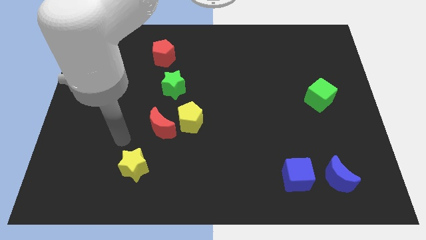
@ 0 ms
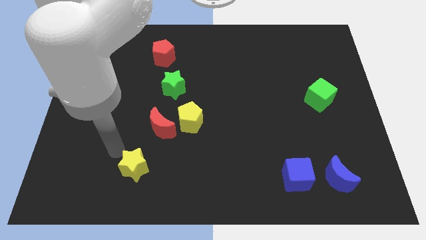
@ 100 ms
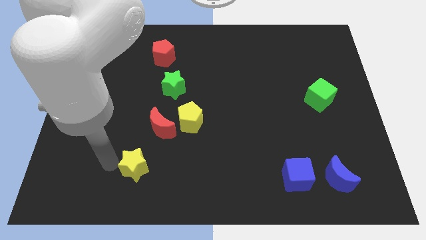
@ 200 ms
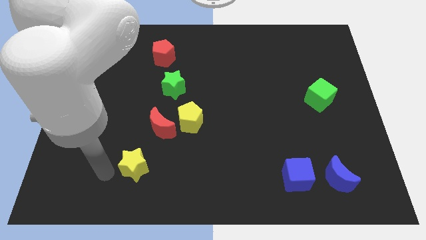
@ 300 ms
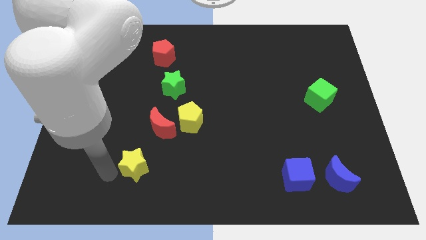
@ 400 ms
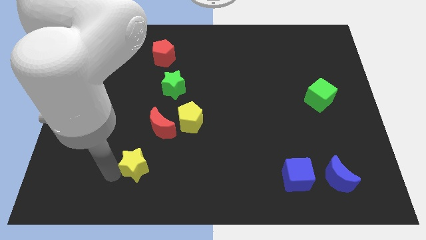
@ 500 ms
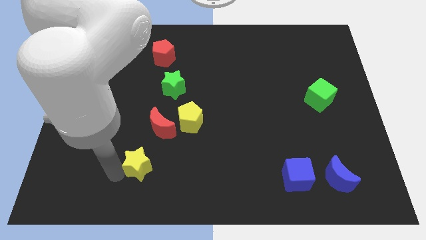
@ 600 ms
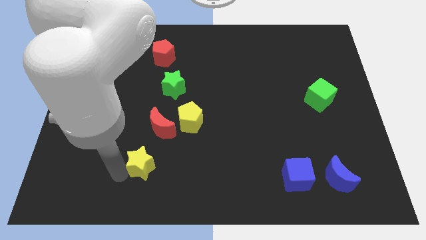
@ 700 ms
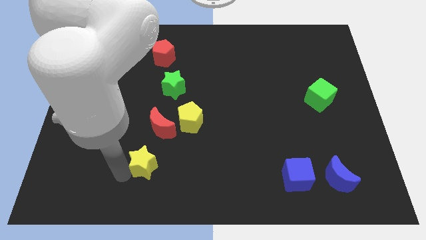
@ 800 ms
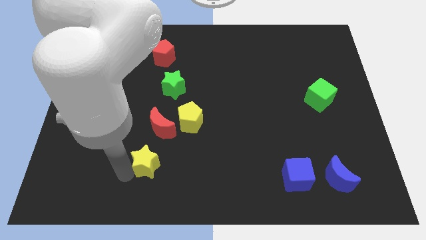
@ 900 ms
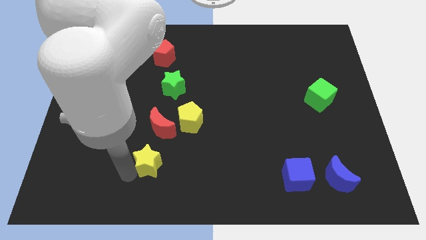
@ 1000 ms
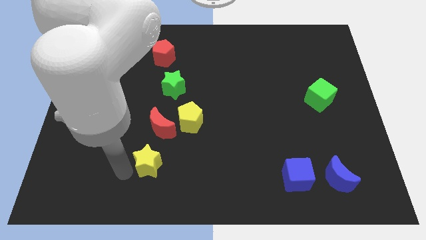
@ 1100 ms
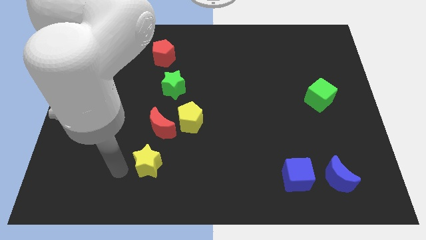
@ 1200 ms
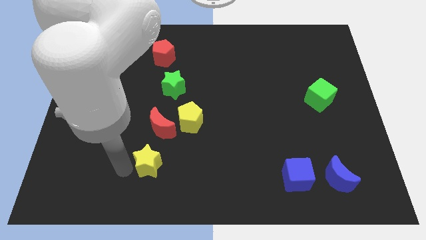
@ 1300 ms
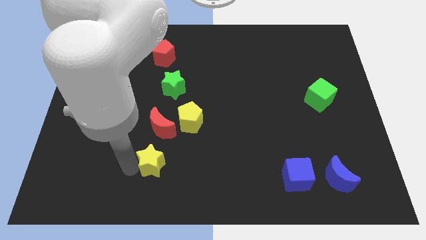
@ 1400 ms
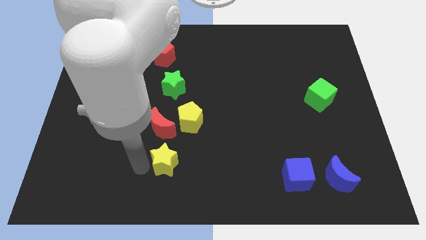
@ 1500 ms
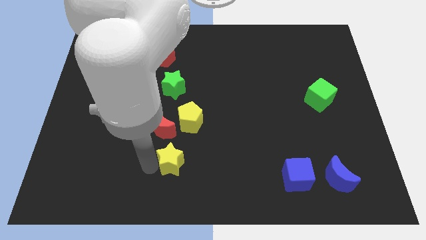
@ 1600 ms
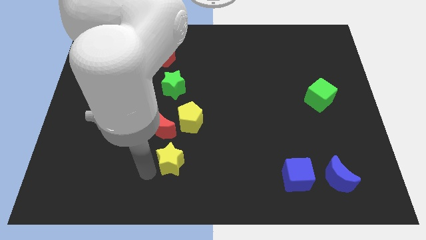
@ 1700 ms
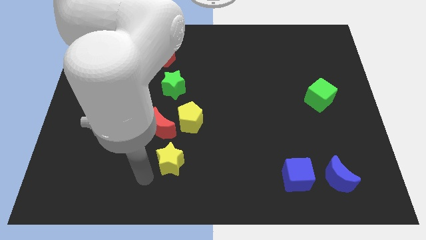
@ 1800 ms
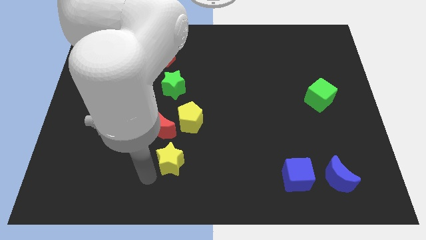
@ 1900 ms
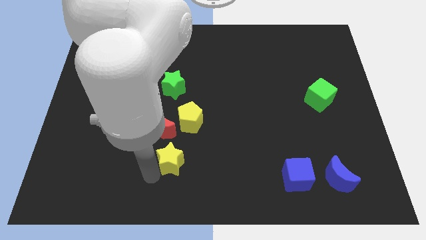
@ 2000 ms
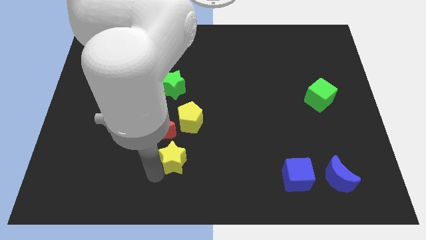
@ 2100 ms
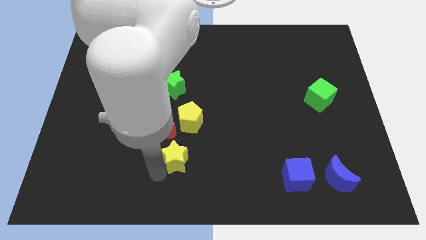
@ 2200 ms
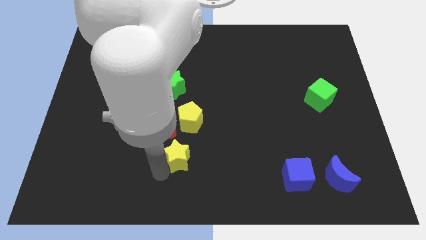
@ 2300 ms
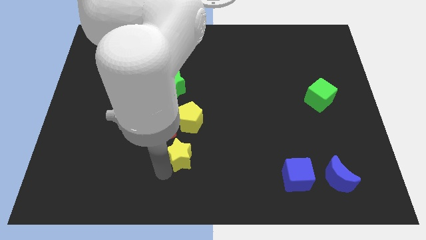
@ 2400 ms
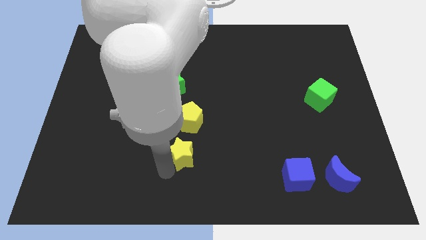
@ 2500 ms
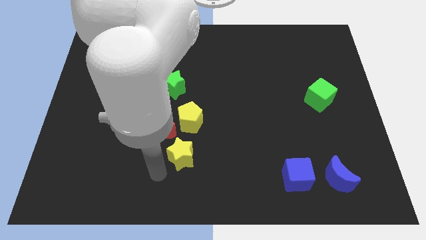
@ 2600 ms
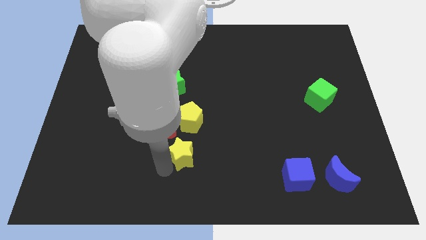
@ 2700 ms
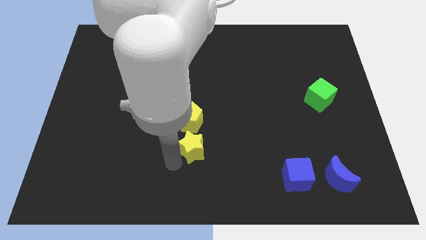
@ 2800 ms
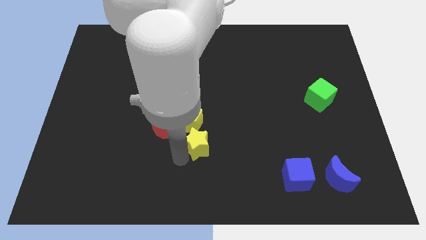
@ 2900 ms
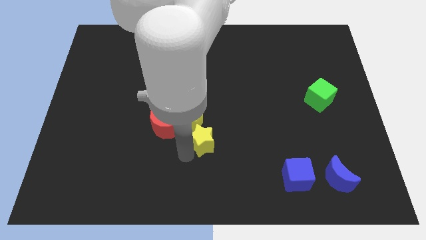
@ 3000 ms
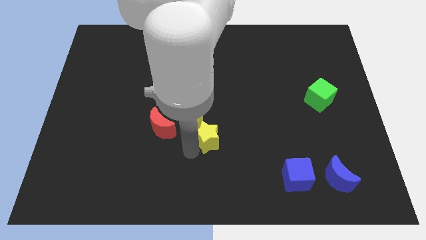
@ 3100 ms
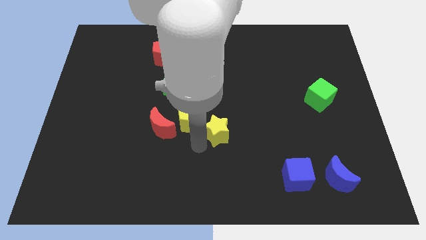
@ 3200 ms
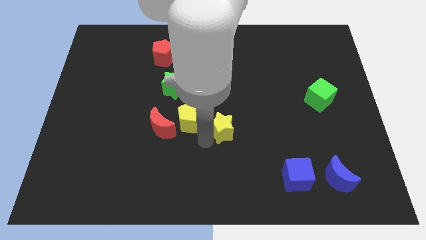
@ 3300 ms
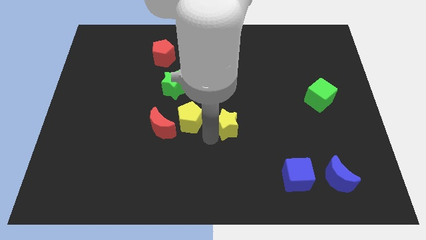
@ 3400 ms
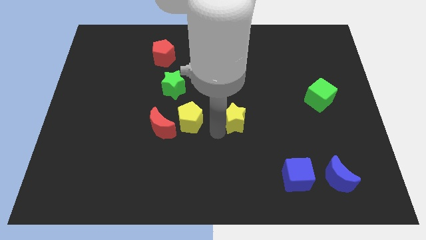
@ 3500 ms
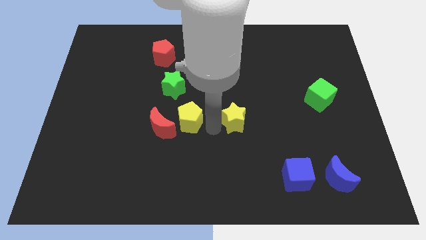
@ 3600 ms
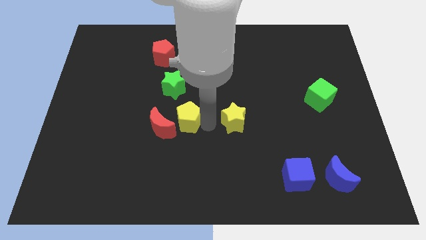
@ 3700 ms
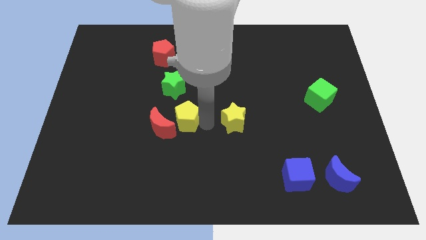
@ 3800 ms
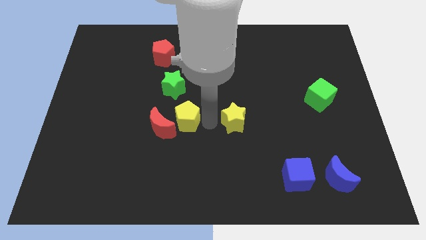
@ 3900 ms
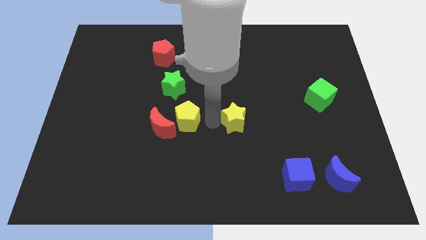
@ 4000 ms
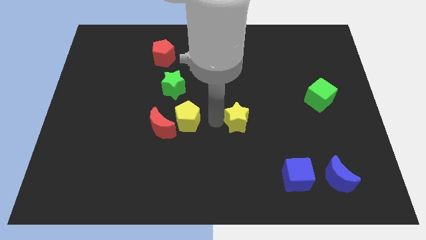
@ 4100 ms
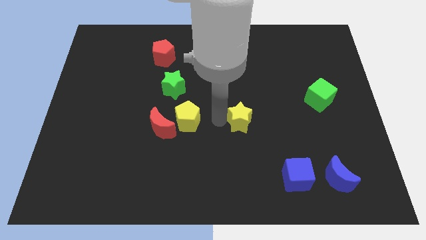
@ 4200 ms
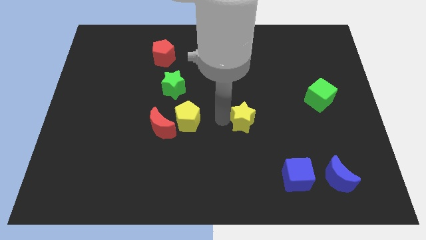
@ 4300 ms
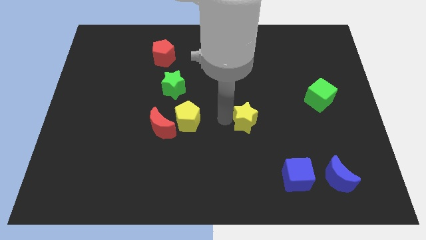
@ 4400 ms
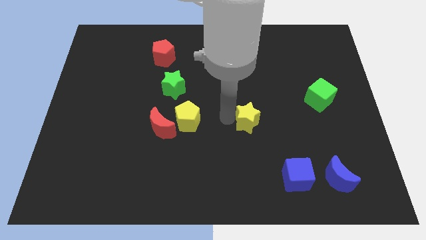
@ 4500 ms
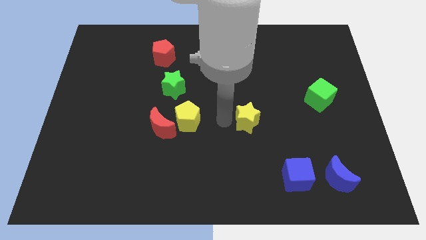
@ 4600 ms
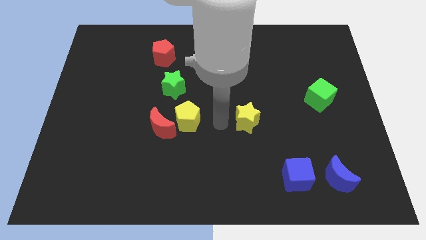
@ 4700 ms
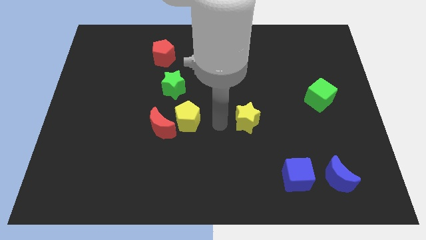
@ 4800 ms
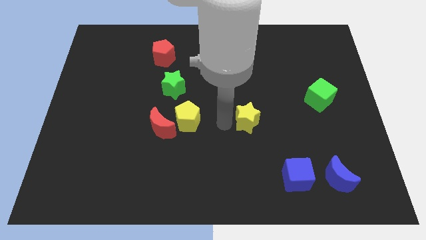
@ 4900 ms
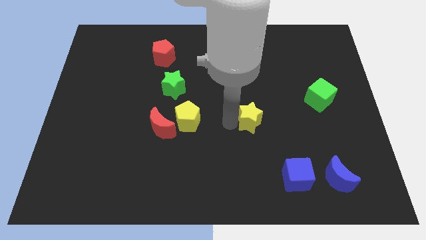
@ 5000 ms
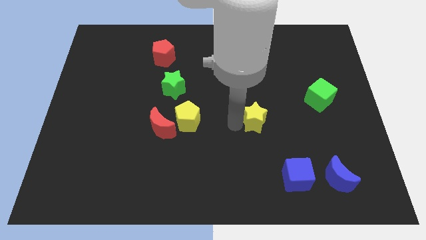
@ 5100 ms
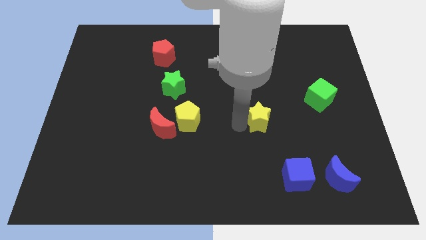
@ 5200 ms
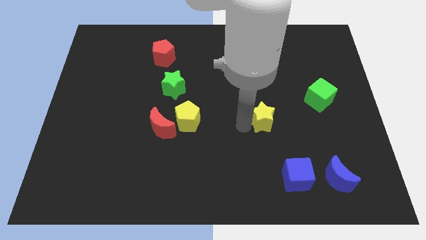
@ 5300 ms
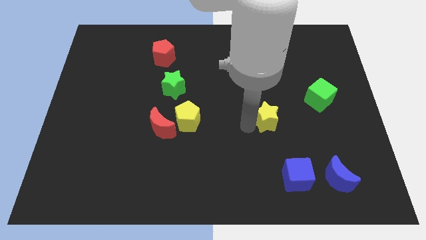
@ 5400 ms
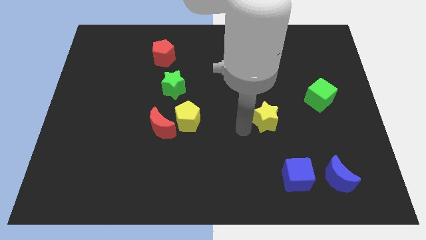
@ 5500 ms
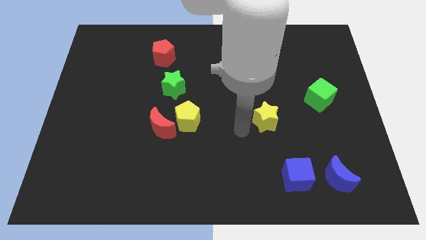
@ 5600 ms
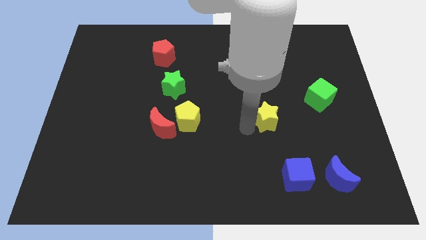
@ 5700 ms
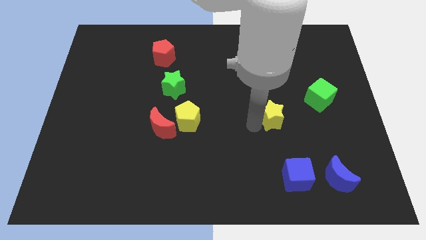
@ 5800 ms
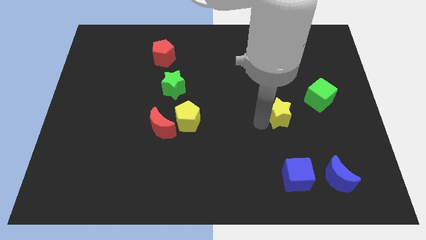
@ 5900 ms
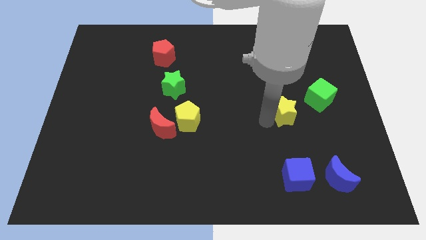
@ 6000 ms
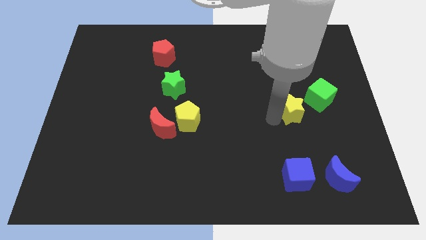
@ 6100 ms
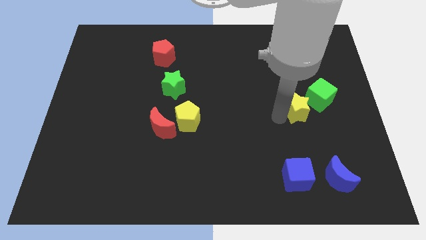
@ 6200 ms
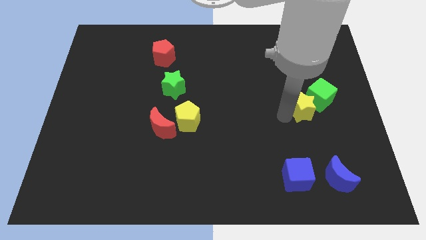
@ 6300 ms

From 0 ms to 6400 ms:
put the yellow star to the green cube

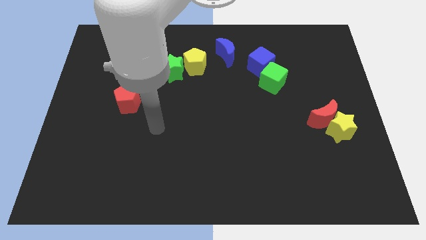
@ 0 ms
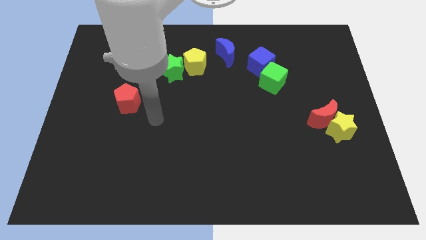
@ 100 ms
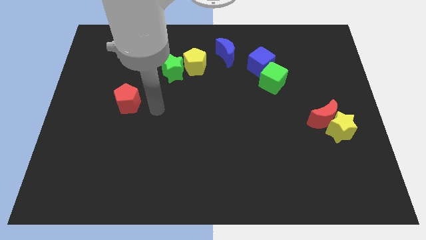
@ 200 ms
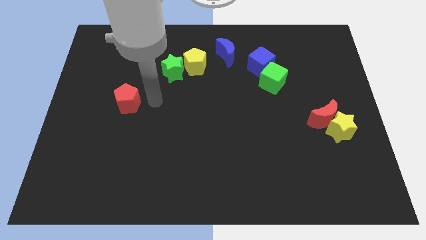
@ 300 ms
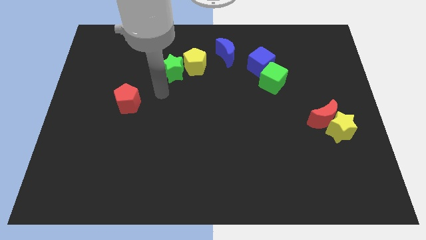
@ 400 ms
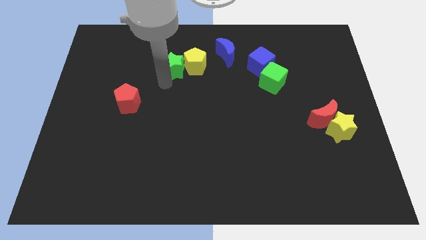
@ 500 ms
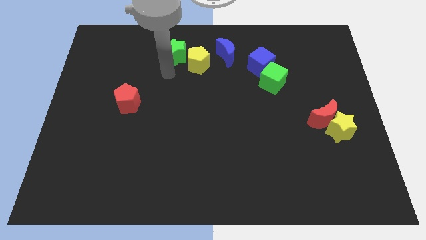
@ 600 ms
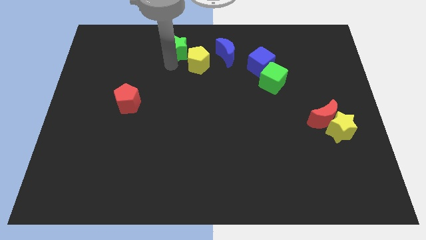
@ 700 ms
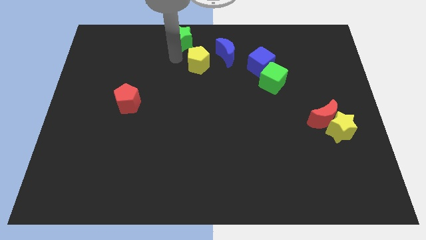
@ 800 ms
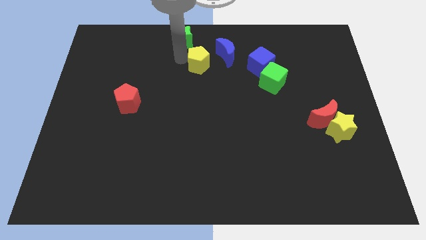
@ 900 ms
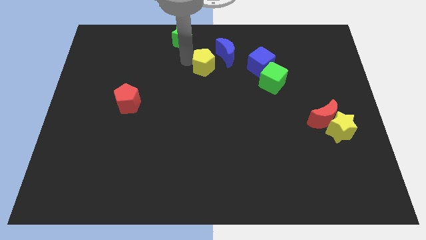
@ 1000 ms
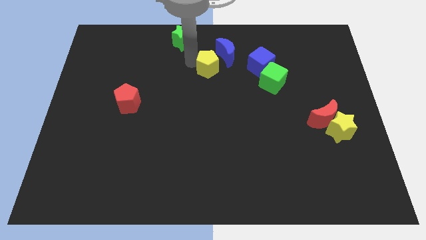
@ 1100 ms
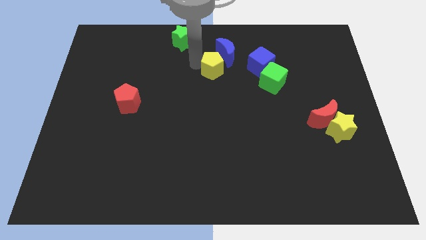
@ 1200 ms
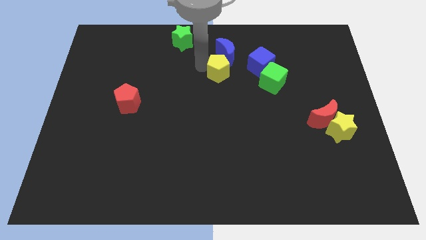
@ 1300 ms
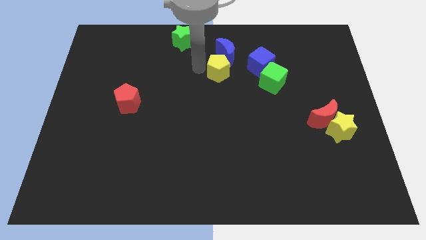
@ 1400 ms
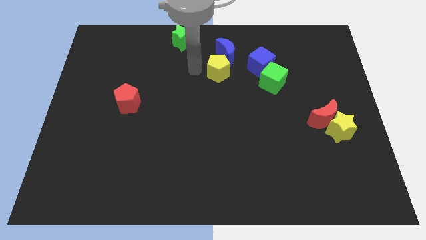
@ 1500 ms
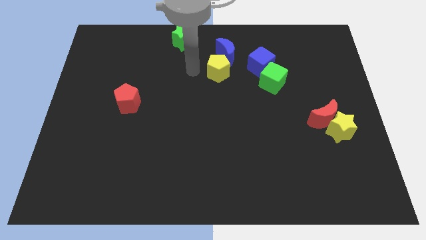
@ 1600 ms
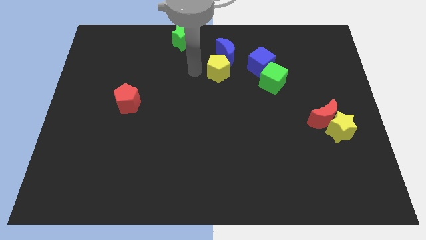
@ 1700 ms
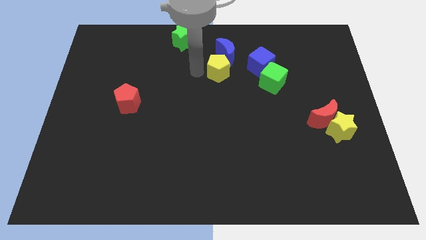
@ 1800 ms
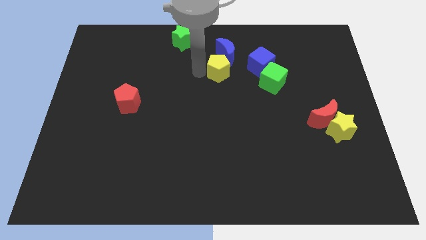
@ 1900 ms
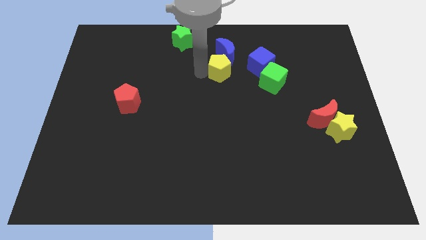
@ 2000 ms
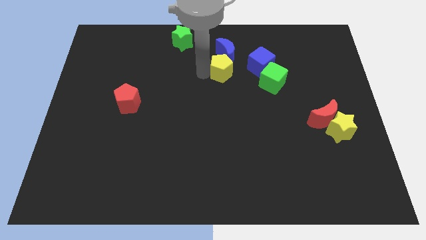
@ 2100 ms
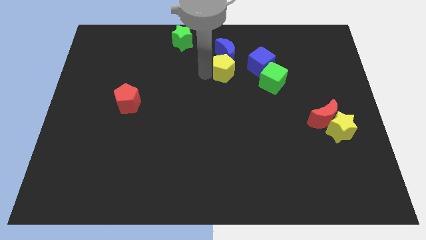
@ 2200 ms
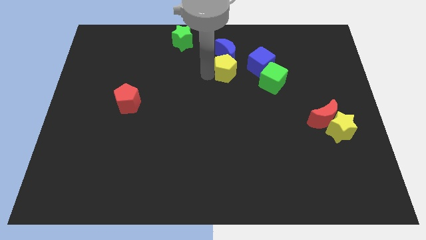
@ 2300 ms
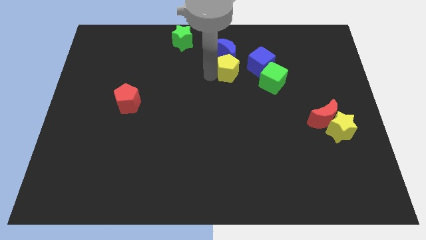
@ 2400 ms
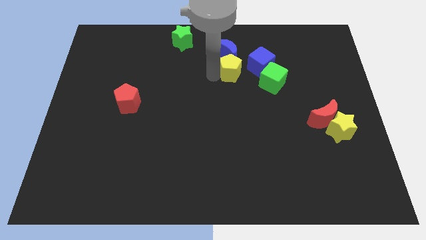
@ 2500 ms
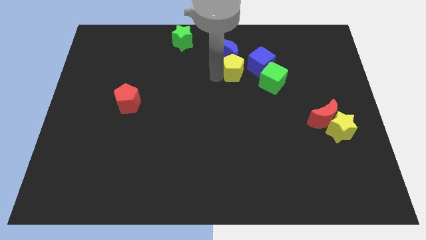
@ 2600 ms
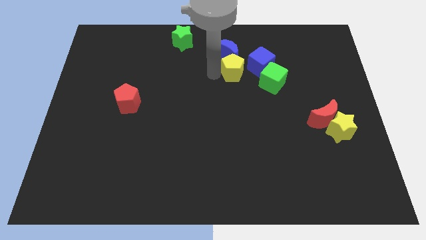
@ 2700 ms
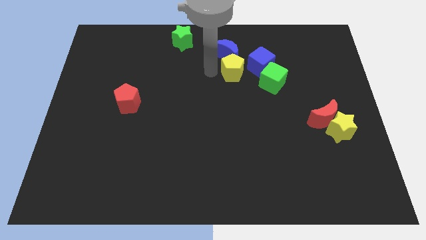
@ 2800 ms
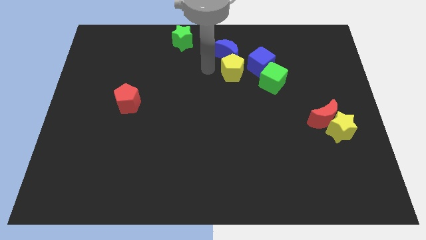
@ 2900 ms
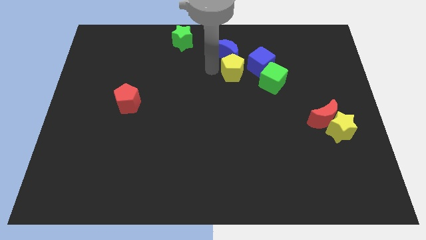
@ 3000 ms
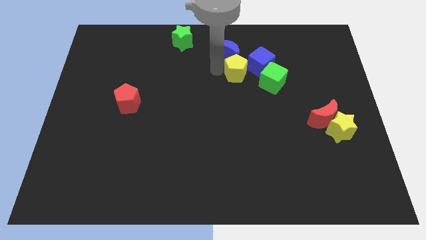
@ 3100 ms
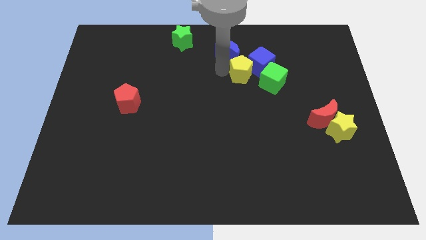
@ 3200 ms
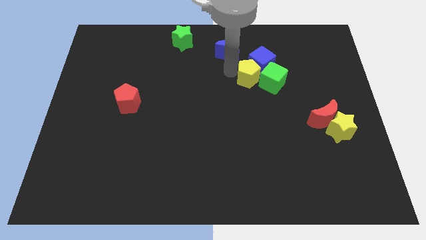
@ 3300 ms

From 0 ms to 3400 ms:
put the yellow pentagon close to the green cube
